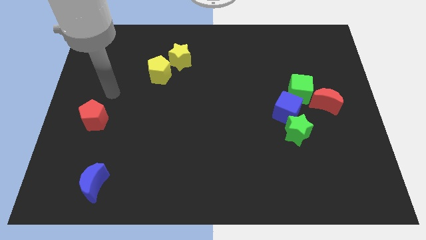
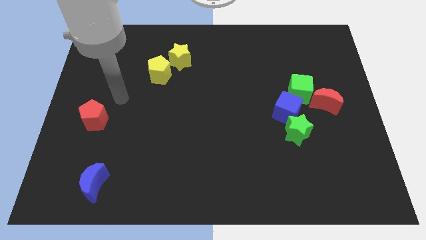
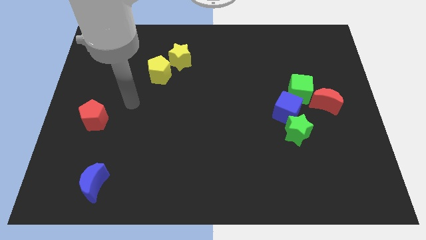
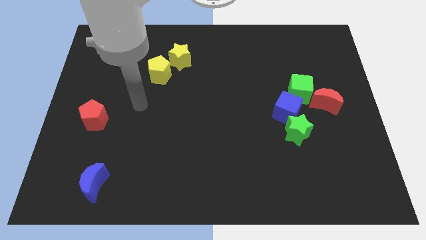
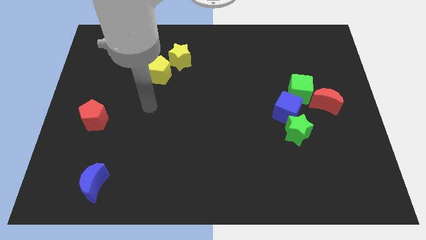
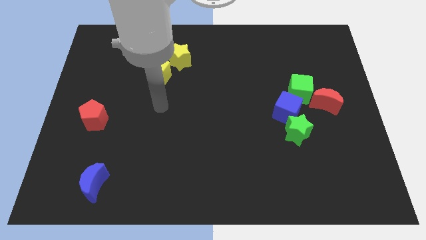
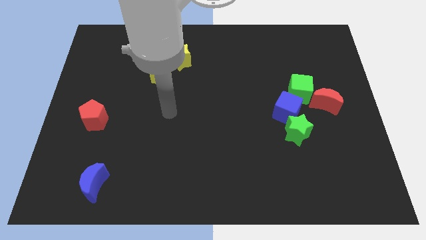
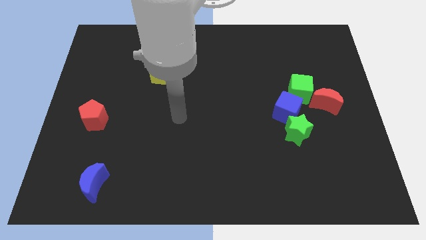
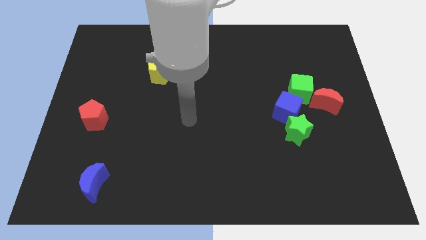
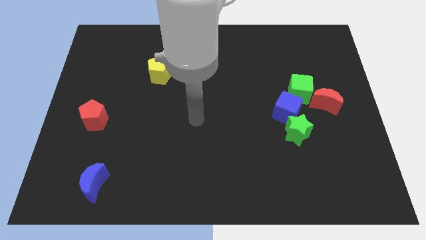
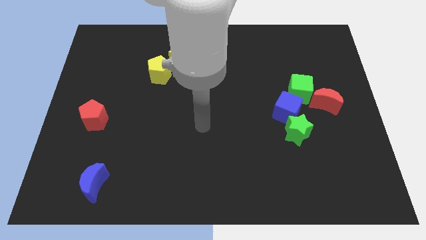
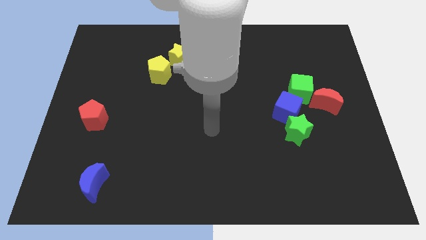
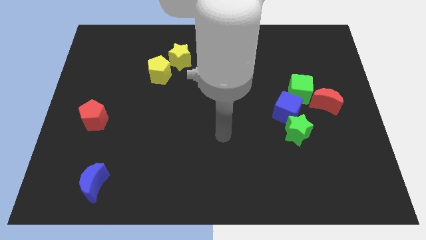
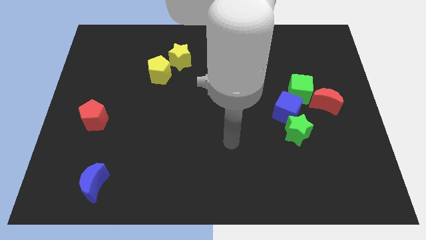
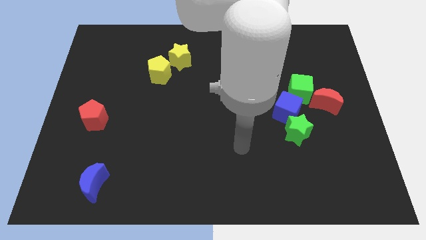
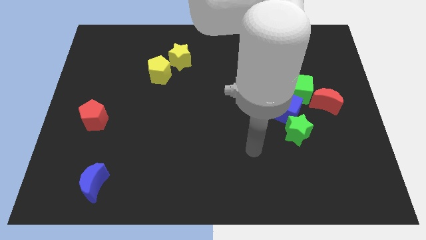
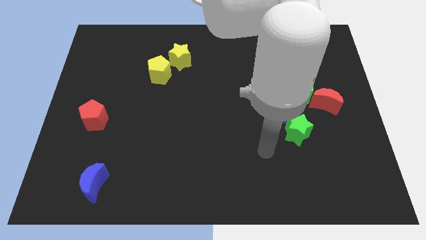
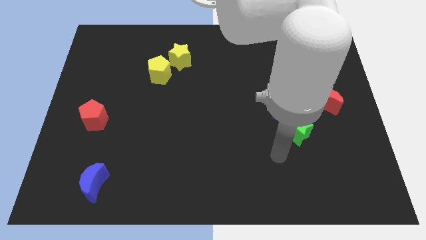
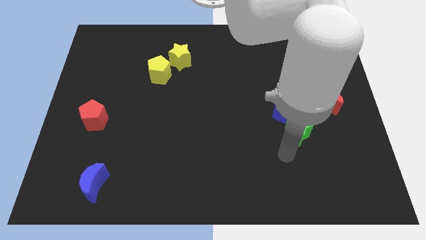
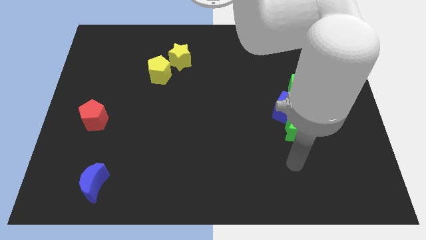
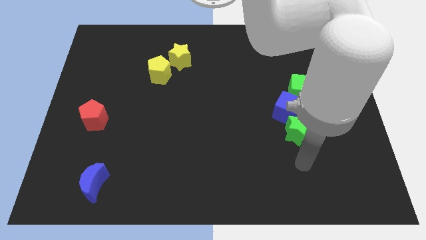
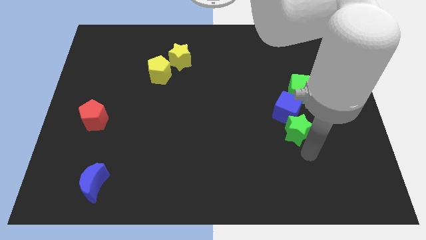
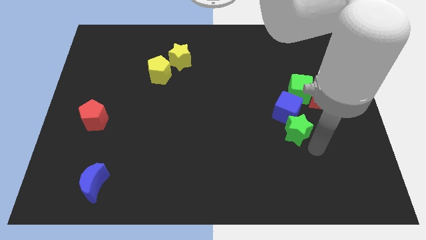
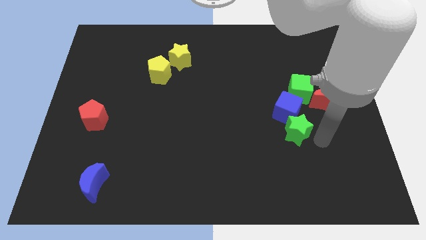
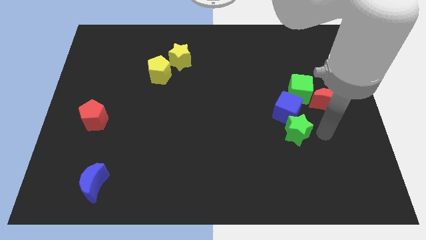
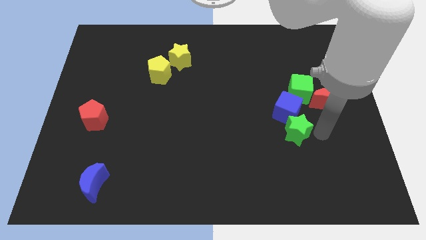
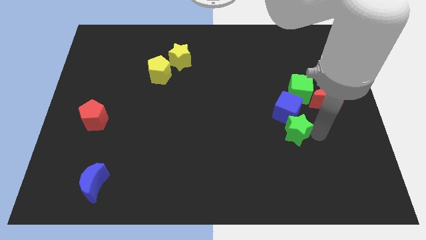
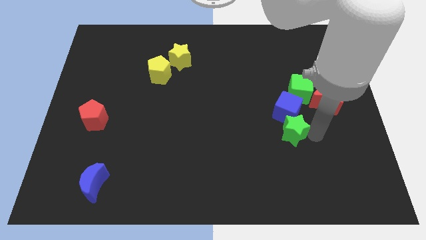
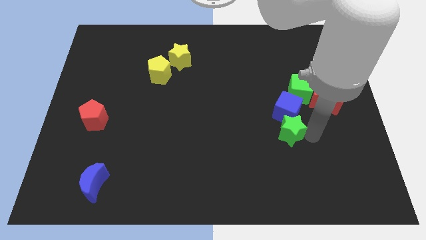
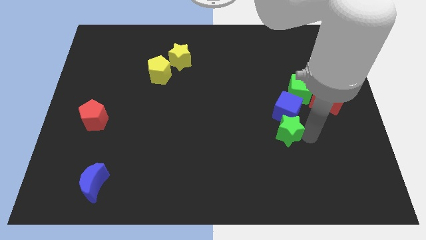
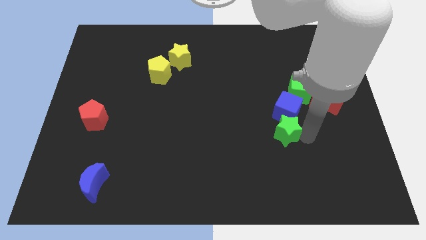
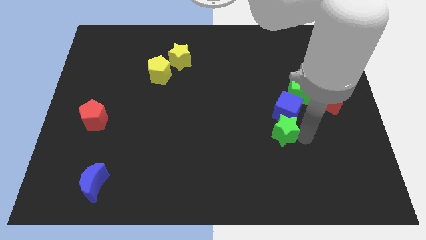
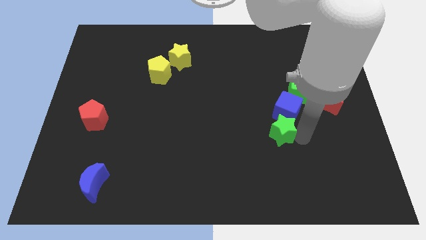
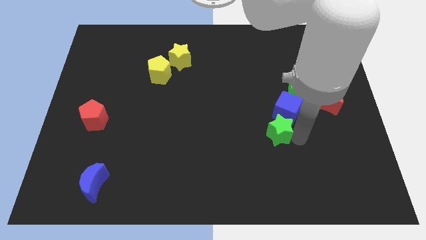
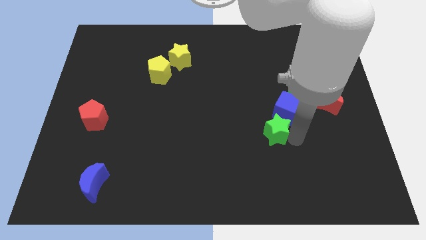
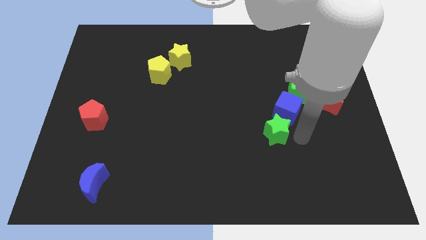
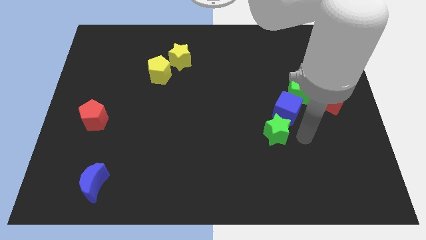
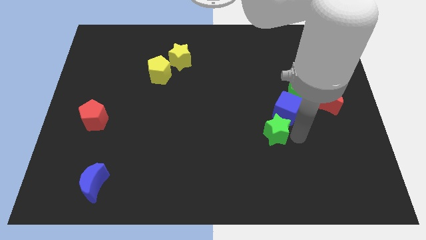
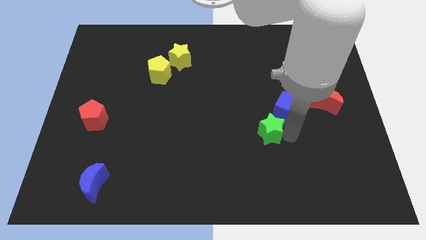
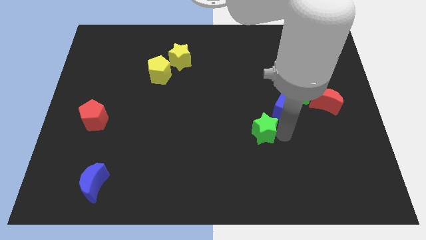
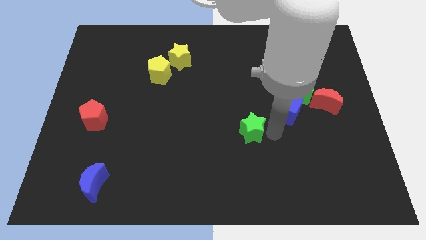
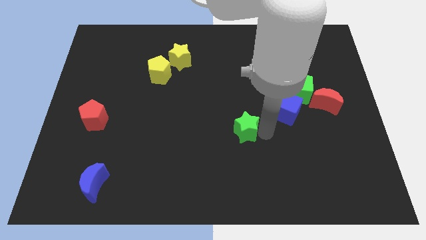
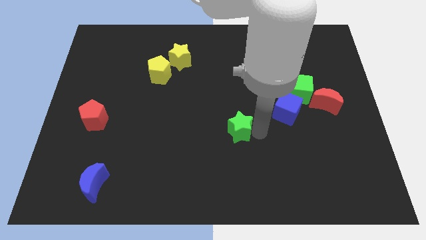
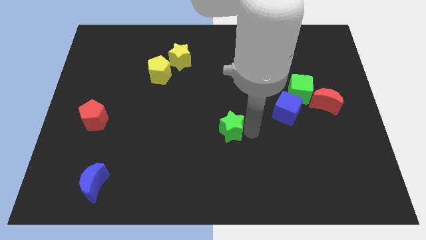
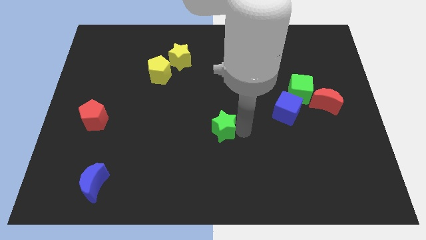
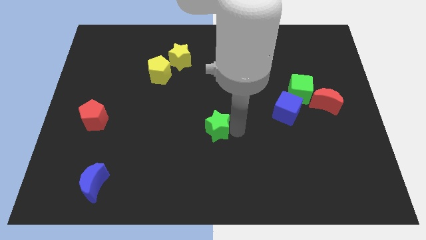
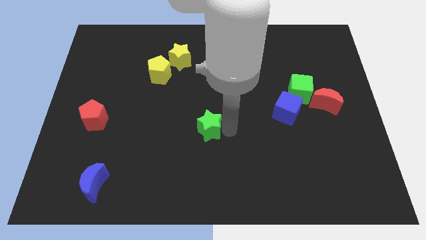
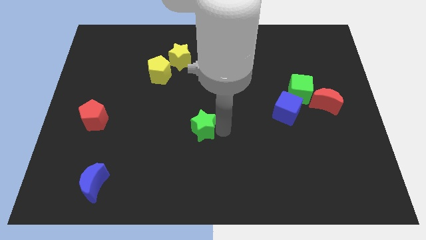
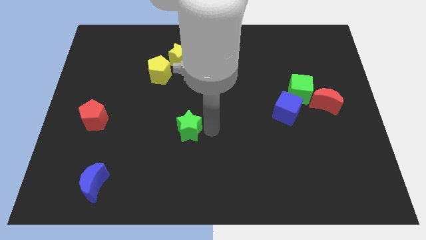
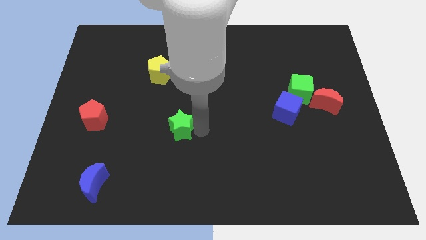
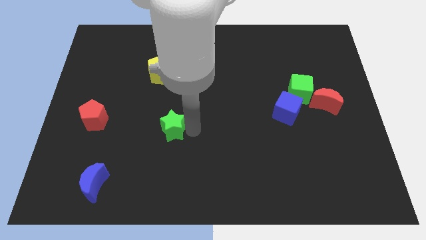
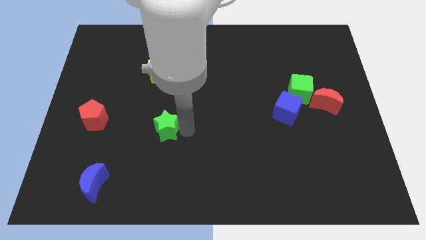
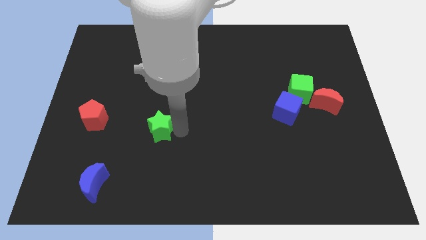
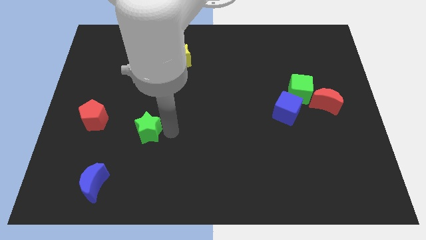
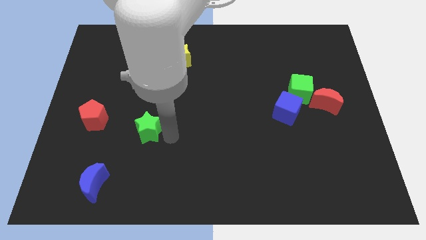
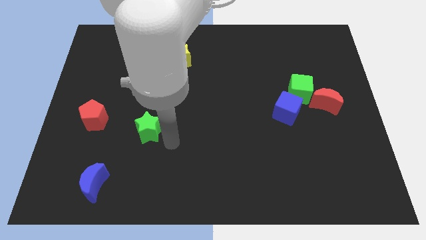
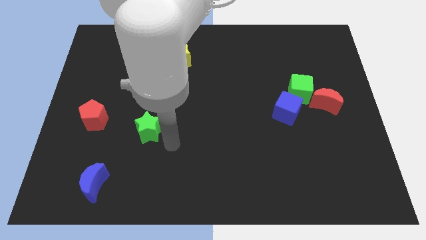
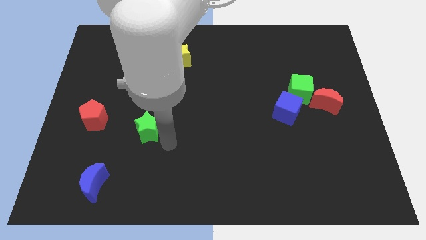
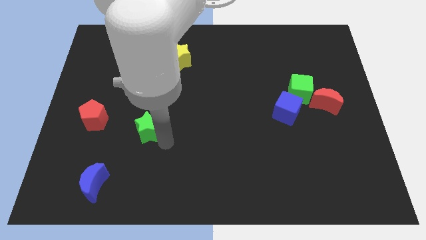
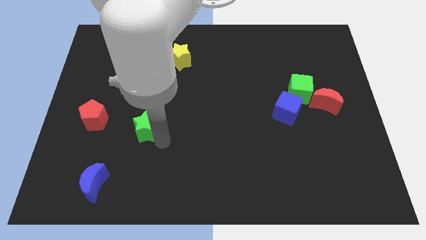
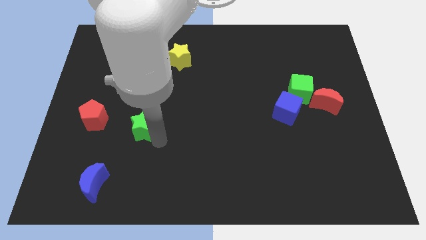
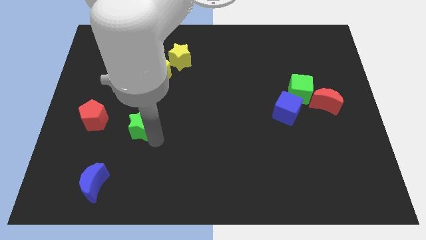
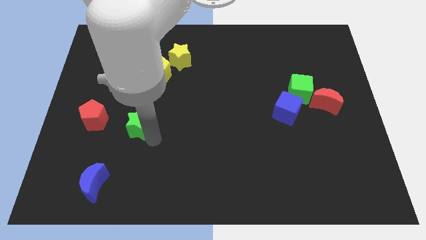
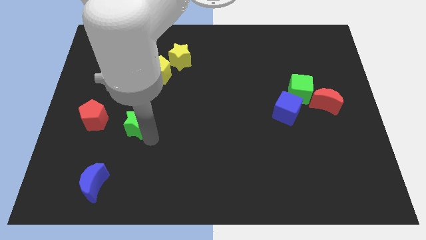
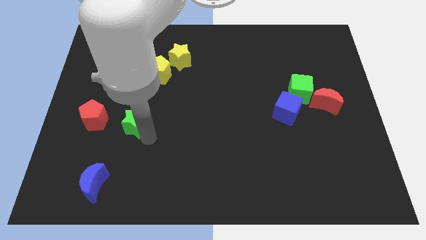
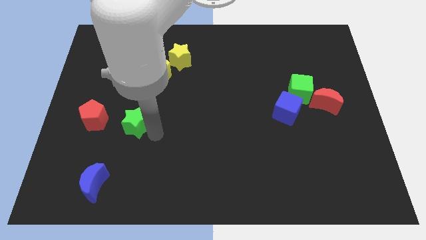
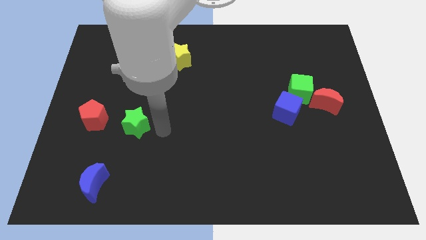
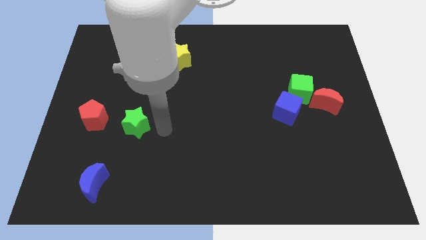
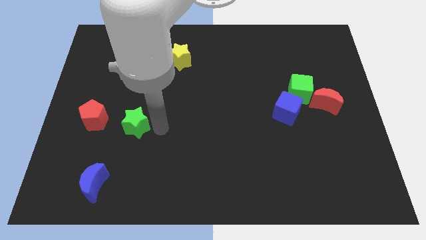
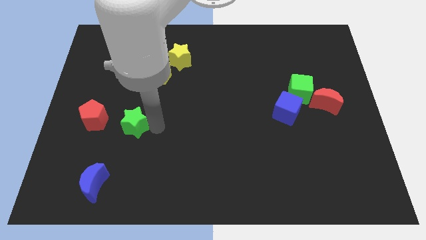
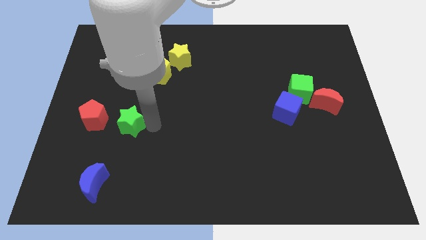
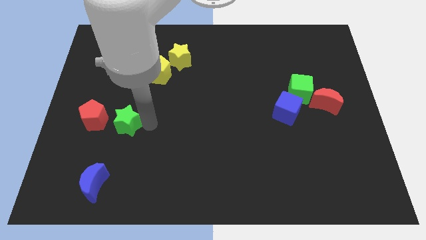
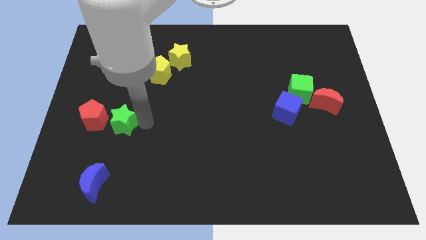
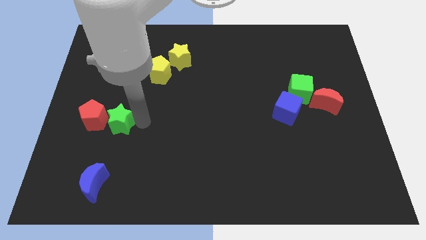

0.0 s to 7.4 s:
move the green star to the red pentagon
